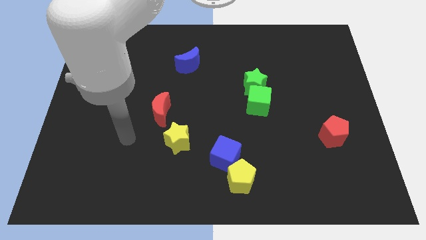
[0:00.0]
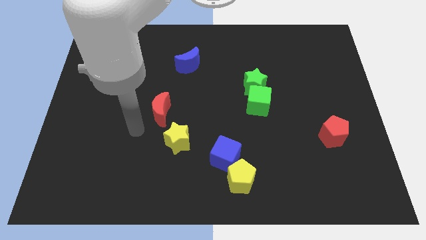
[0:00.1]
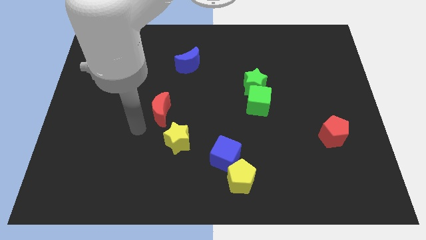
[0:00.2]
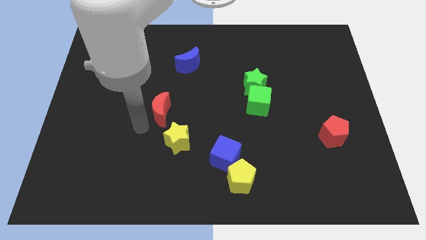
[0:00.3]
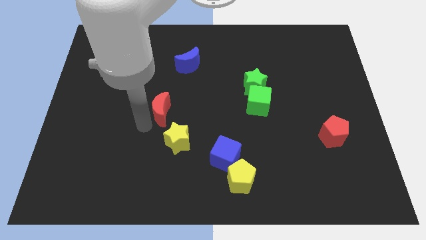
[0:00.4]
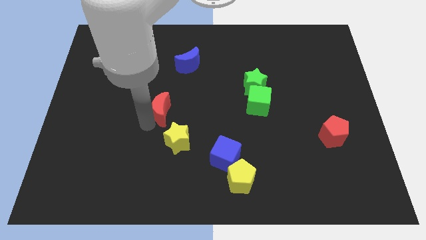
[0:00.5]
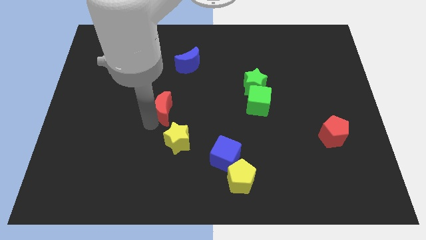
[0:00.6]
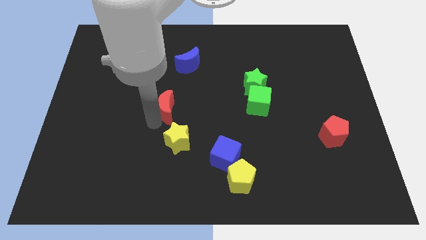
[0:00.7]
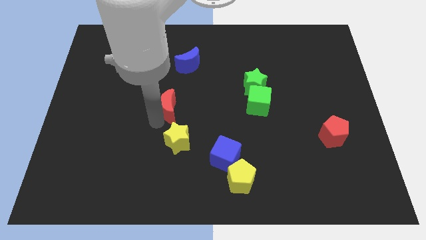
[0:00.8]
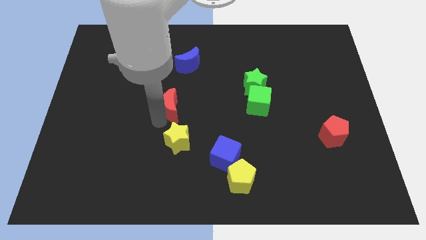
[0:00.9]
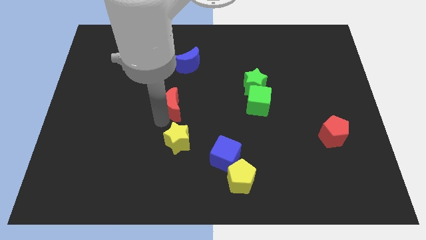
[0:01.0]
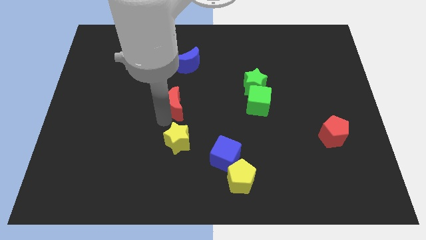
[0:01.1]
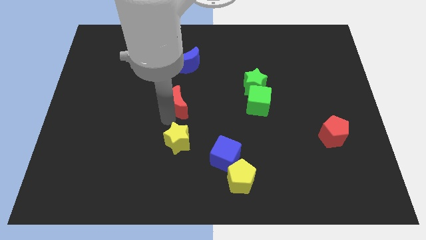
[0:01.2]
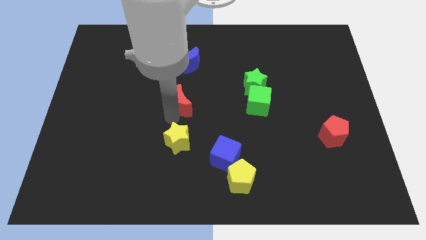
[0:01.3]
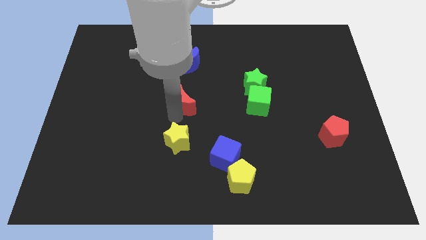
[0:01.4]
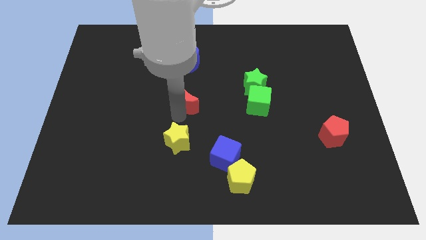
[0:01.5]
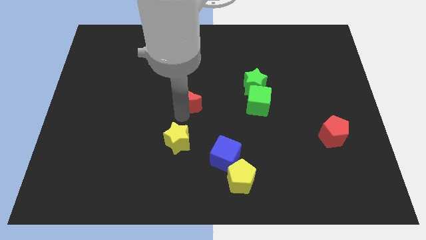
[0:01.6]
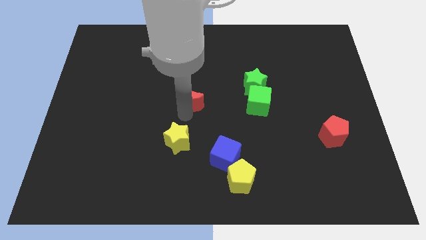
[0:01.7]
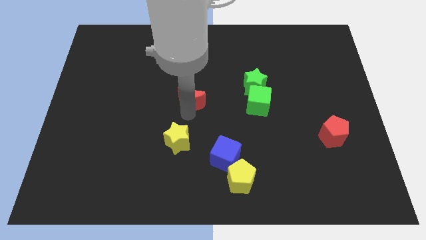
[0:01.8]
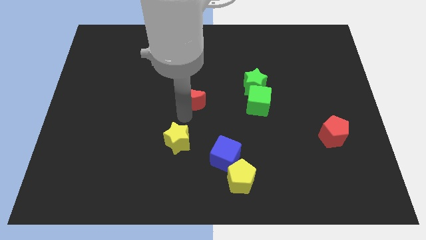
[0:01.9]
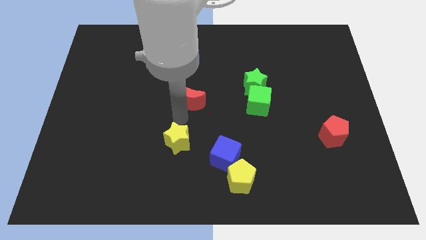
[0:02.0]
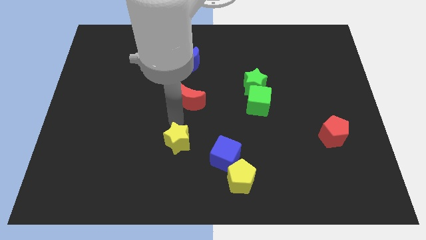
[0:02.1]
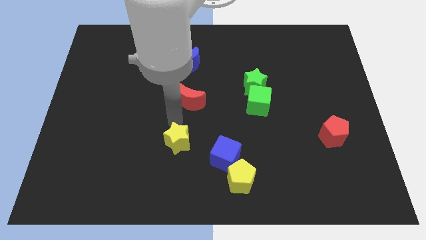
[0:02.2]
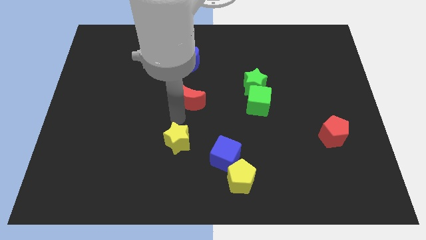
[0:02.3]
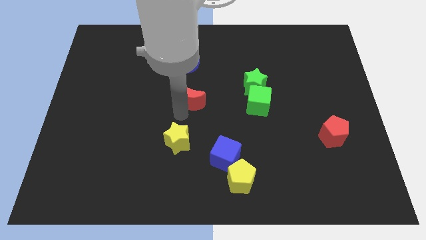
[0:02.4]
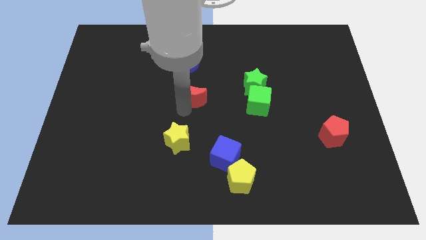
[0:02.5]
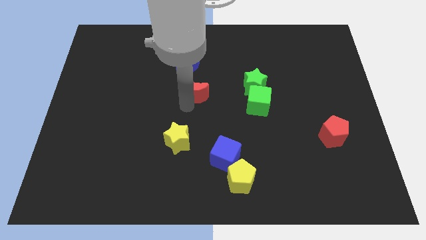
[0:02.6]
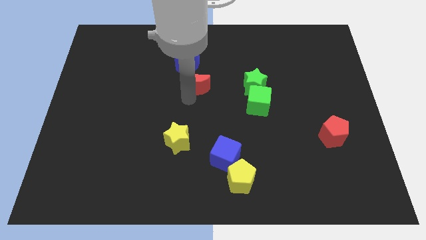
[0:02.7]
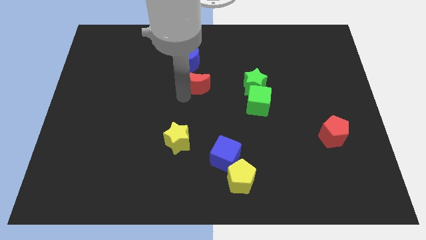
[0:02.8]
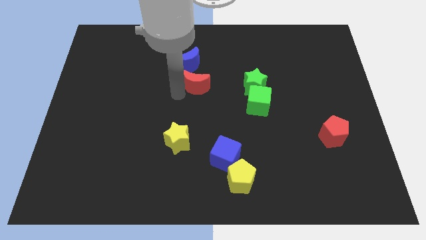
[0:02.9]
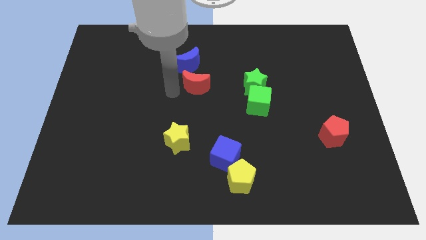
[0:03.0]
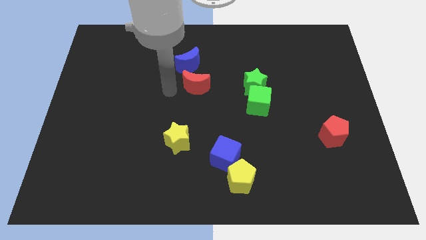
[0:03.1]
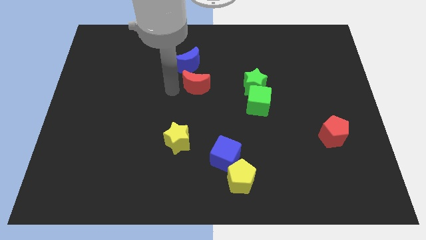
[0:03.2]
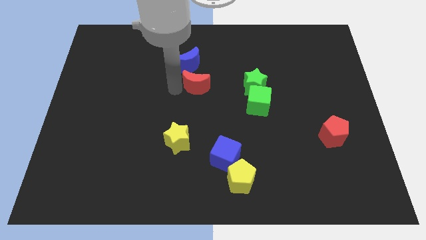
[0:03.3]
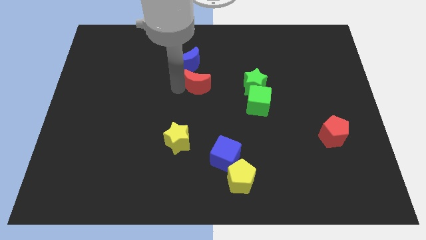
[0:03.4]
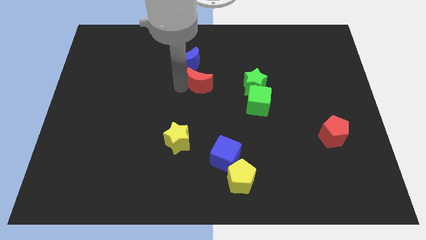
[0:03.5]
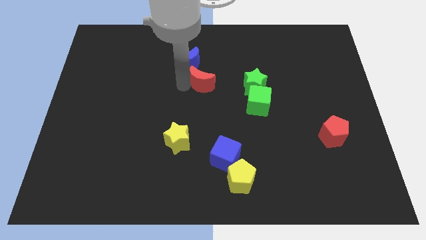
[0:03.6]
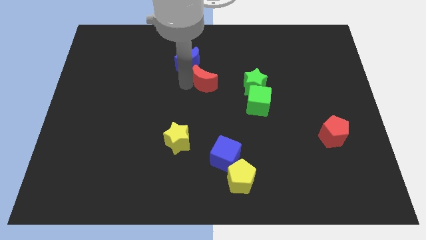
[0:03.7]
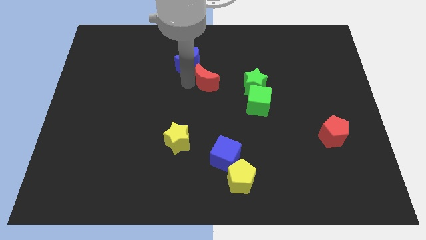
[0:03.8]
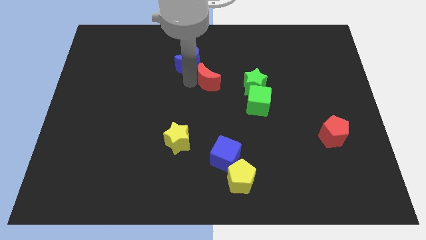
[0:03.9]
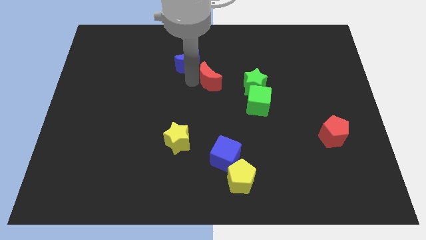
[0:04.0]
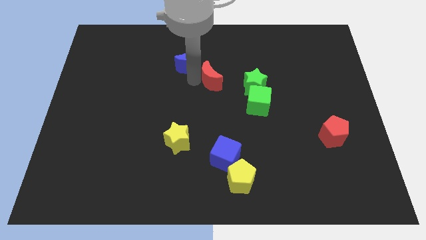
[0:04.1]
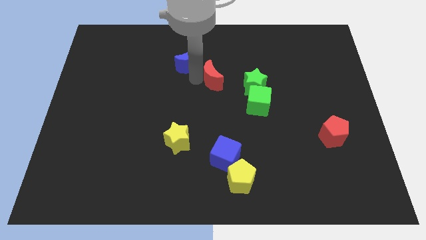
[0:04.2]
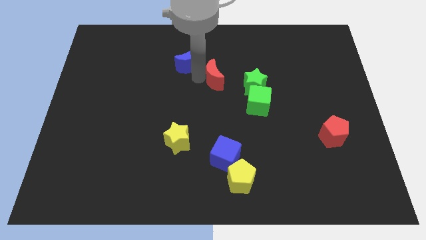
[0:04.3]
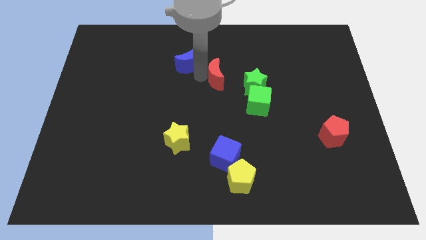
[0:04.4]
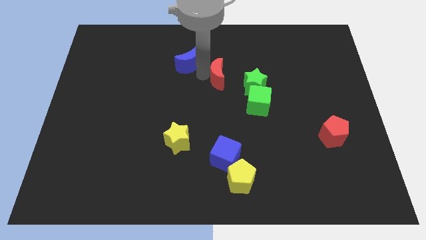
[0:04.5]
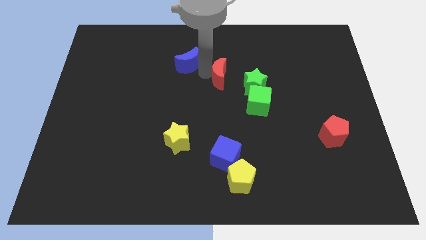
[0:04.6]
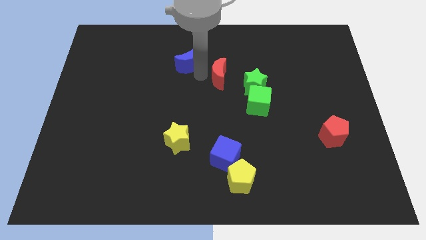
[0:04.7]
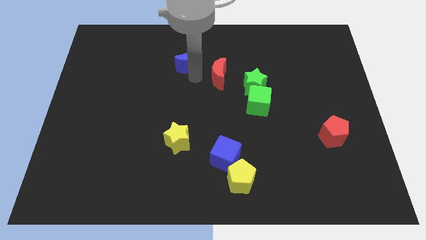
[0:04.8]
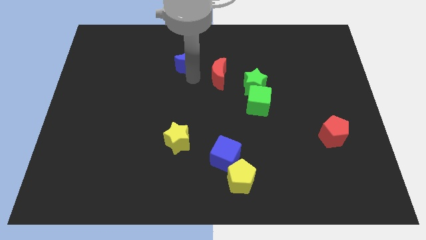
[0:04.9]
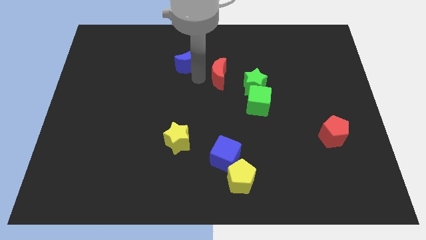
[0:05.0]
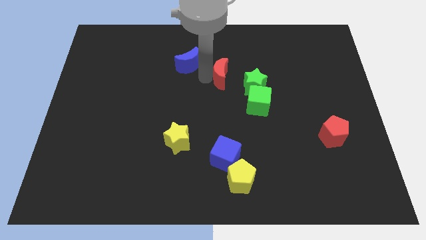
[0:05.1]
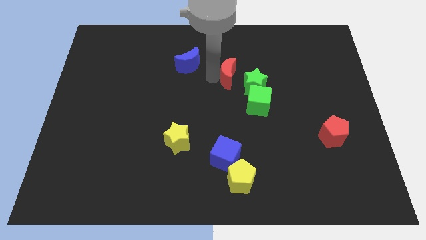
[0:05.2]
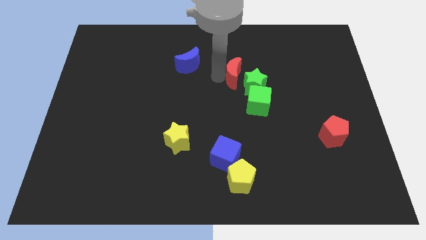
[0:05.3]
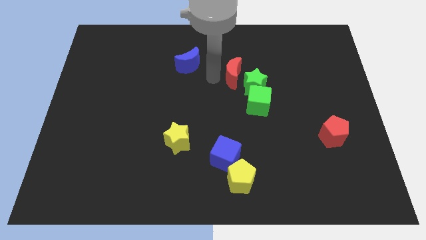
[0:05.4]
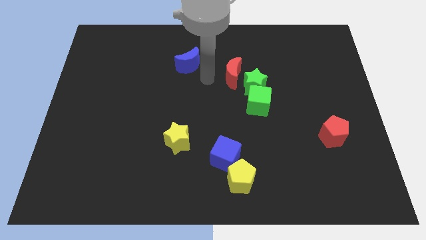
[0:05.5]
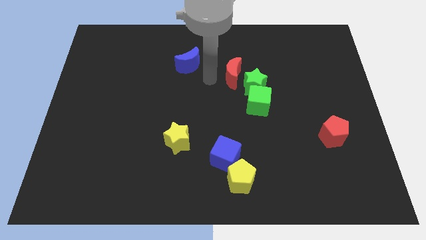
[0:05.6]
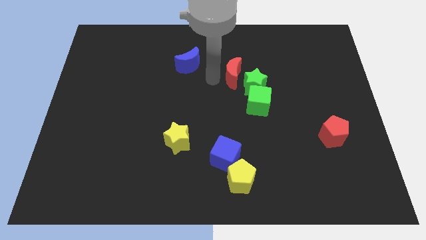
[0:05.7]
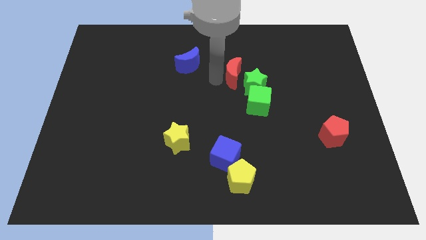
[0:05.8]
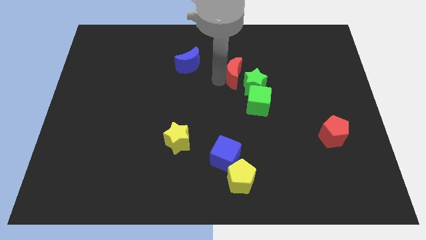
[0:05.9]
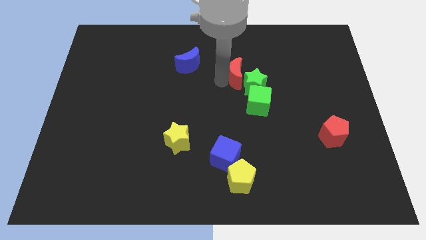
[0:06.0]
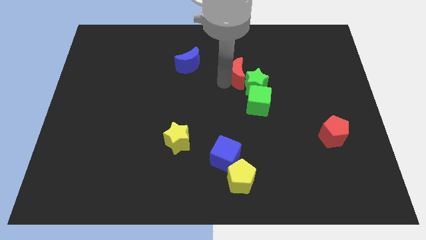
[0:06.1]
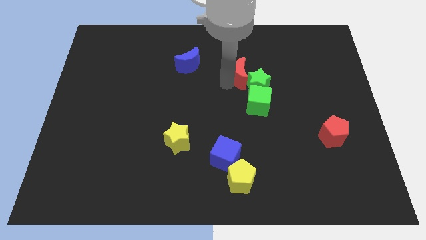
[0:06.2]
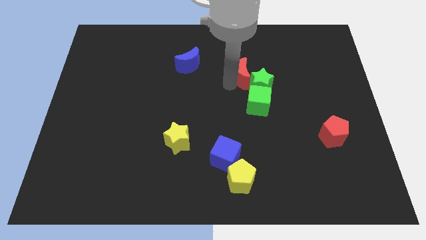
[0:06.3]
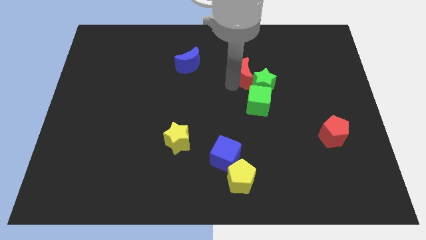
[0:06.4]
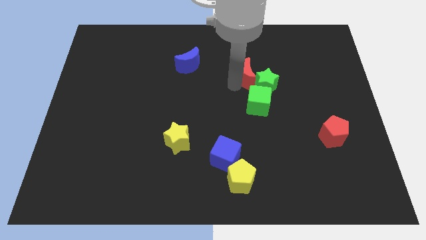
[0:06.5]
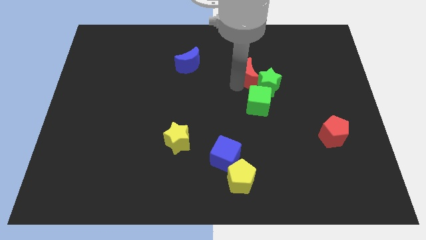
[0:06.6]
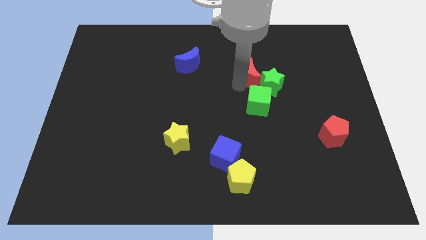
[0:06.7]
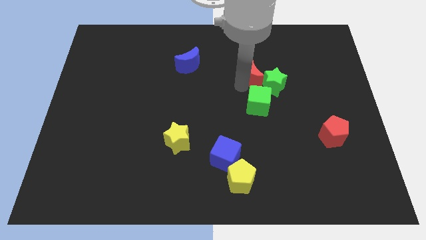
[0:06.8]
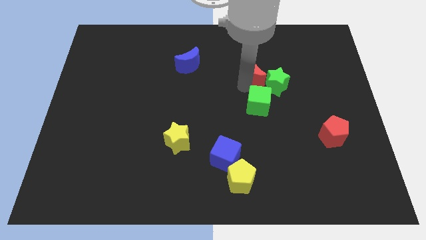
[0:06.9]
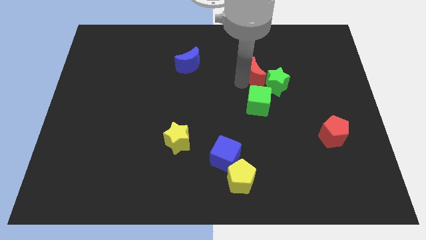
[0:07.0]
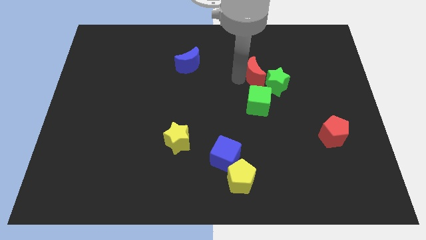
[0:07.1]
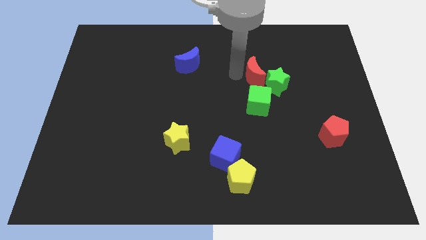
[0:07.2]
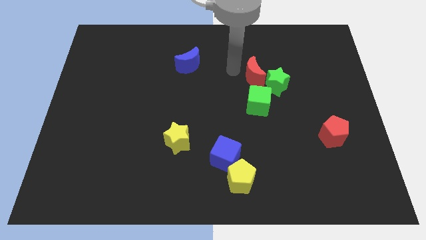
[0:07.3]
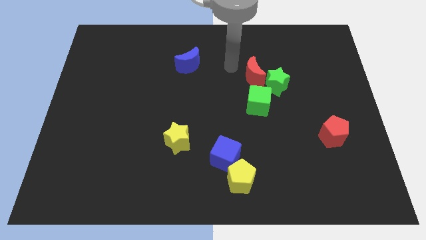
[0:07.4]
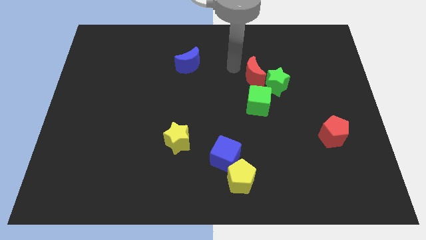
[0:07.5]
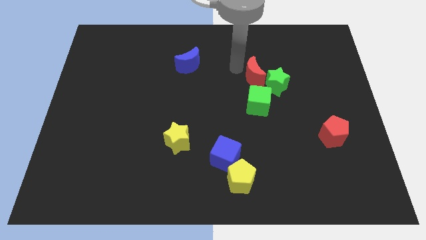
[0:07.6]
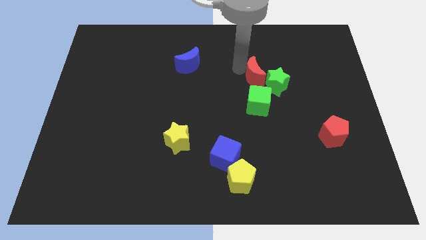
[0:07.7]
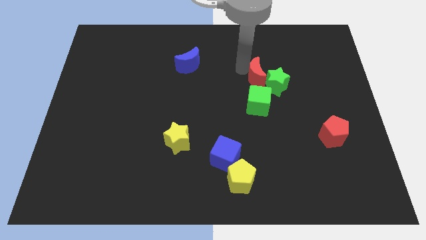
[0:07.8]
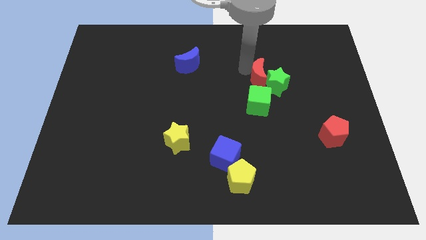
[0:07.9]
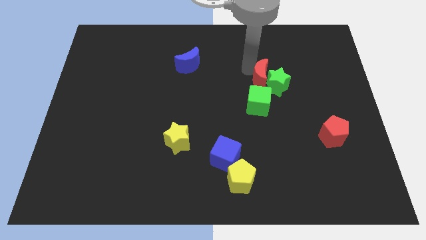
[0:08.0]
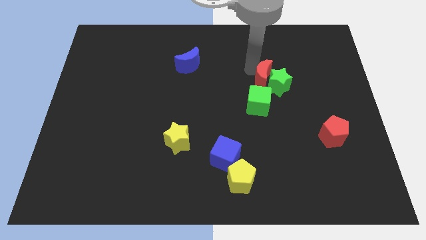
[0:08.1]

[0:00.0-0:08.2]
move the red moon diagonally up and to the right of the green cube
